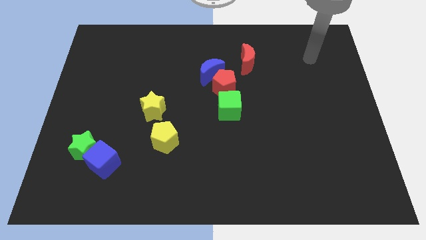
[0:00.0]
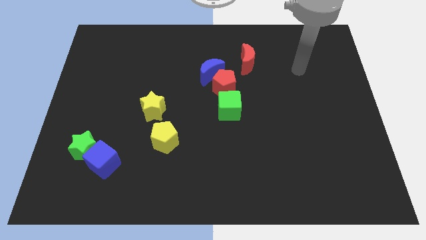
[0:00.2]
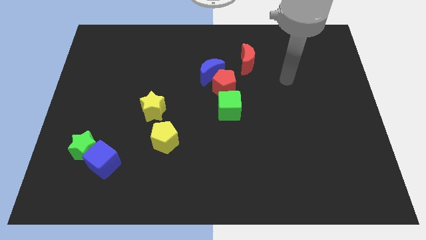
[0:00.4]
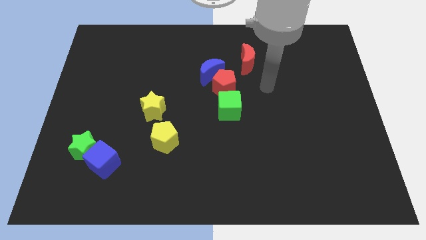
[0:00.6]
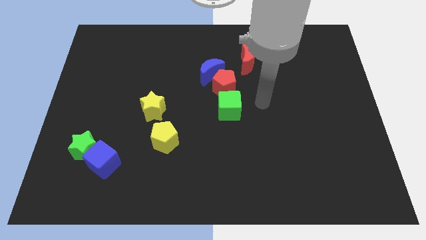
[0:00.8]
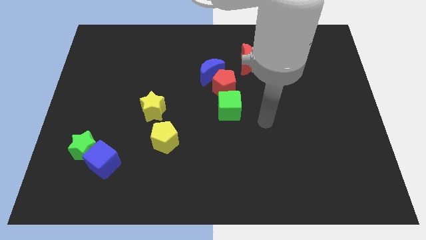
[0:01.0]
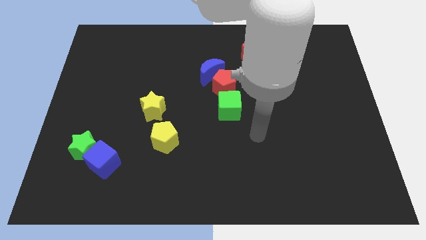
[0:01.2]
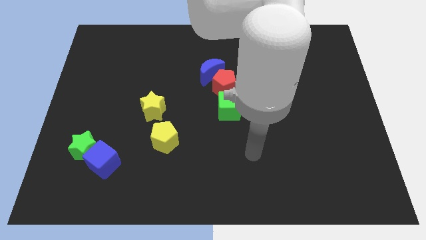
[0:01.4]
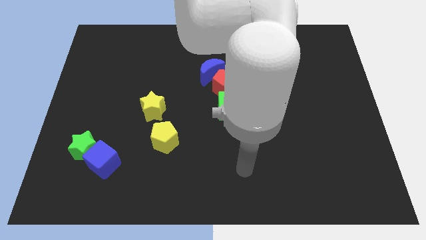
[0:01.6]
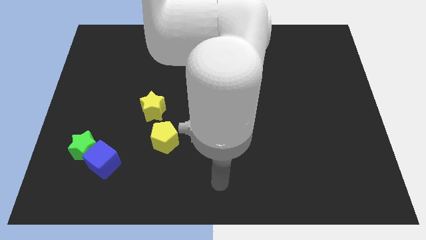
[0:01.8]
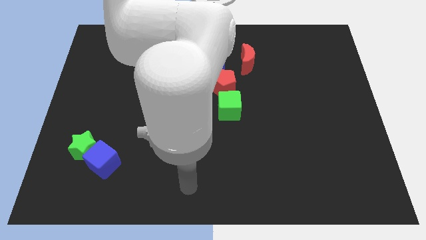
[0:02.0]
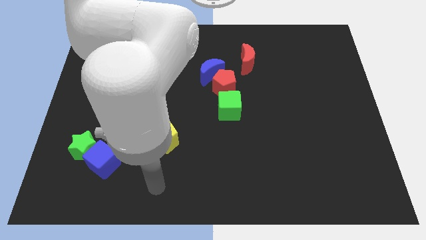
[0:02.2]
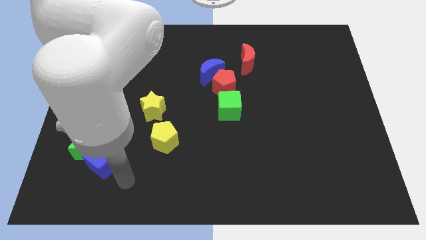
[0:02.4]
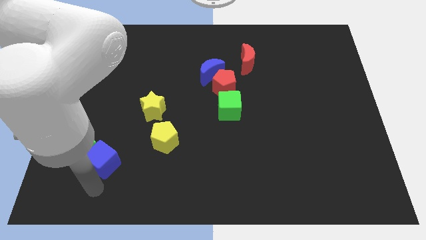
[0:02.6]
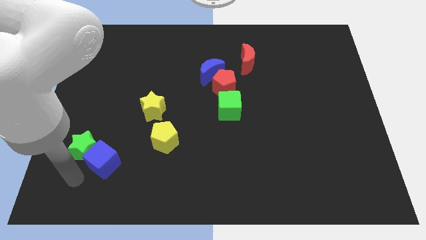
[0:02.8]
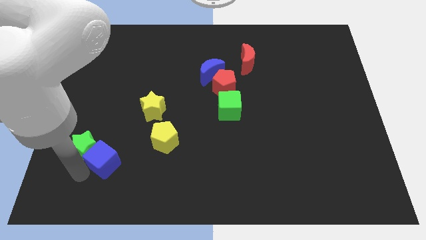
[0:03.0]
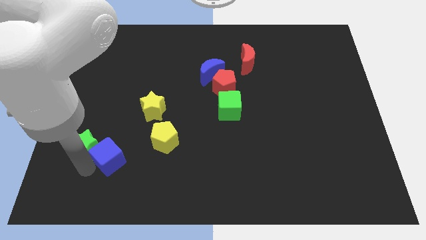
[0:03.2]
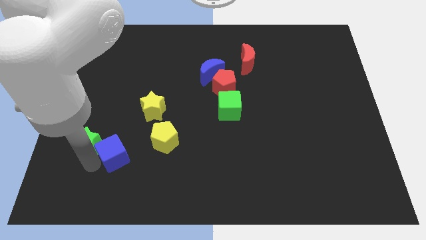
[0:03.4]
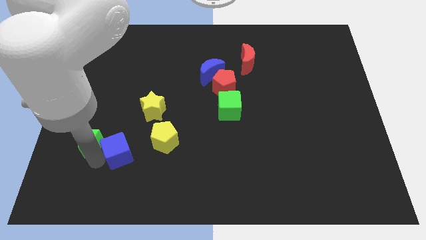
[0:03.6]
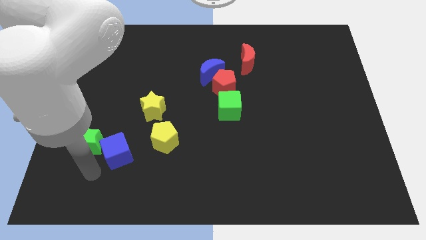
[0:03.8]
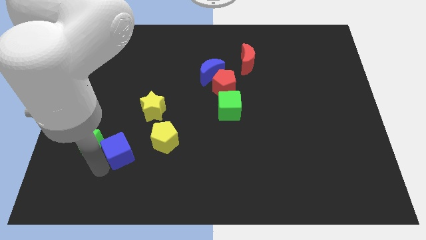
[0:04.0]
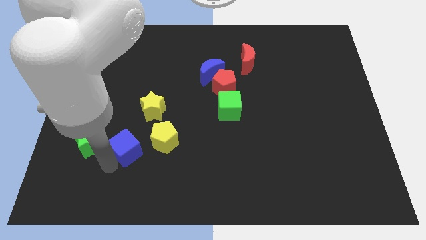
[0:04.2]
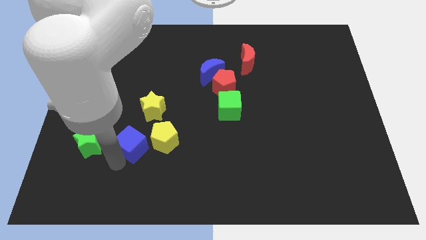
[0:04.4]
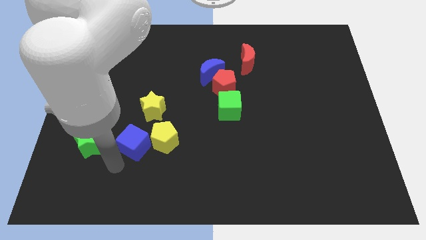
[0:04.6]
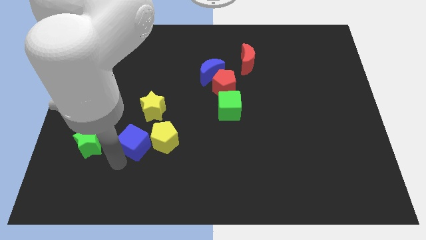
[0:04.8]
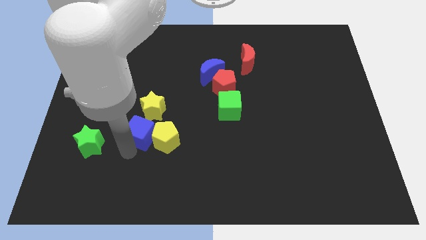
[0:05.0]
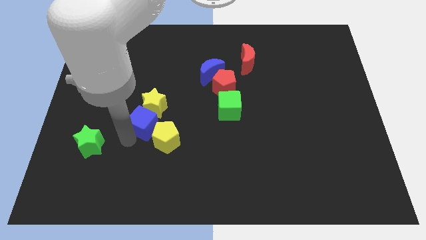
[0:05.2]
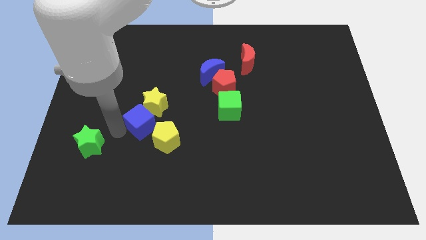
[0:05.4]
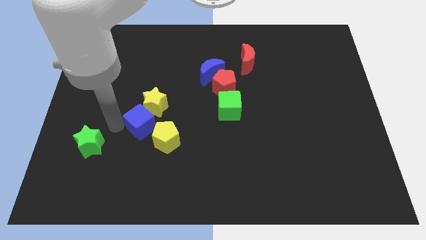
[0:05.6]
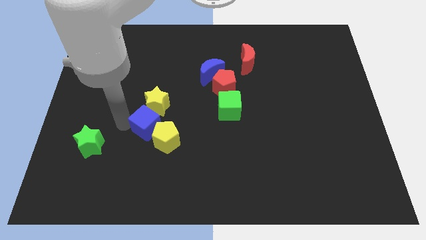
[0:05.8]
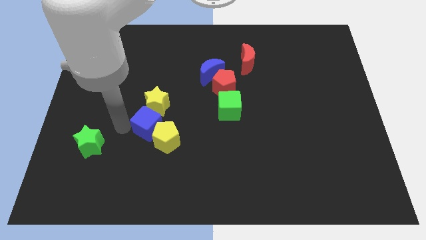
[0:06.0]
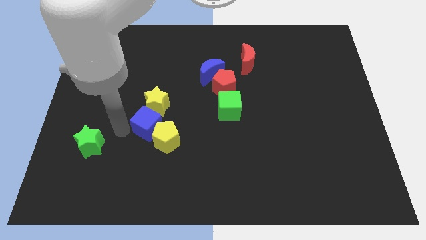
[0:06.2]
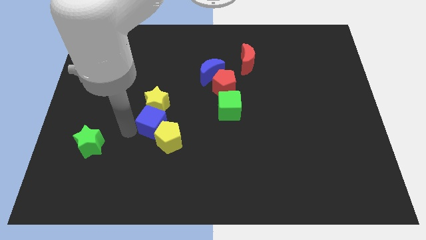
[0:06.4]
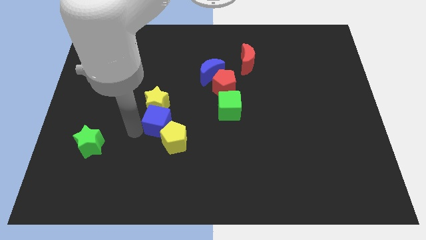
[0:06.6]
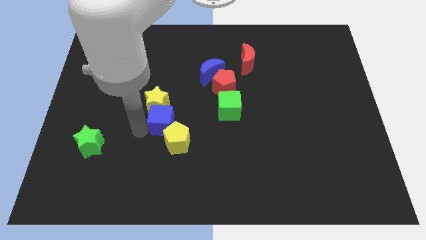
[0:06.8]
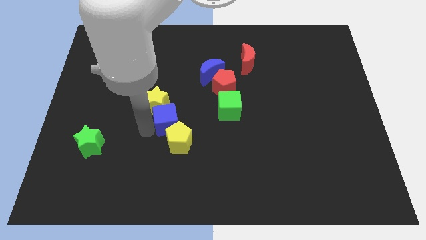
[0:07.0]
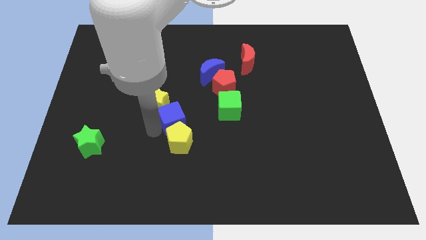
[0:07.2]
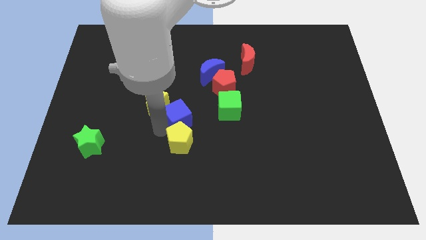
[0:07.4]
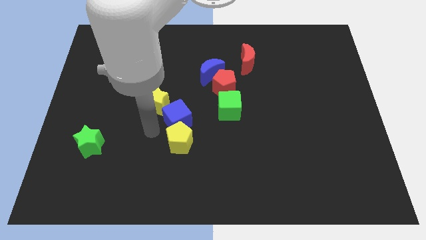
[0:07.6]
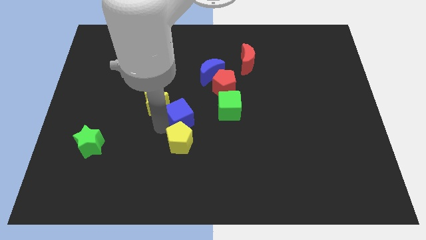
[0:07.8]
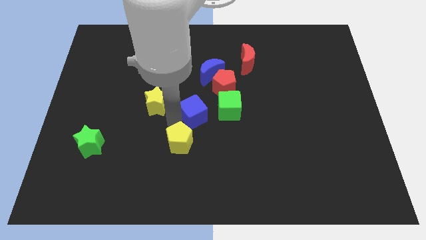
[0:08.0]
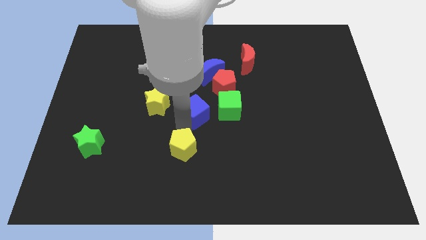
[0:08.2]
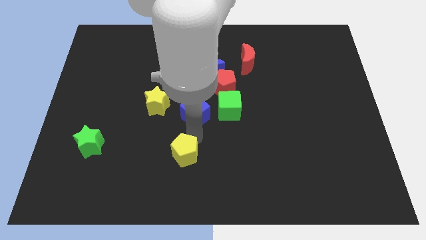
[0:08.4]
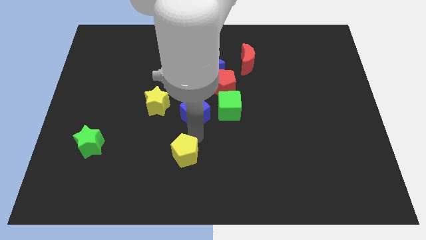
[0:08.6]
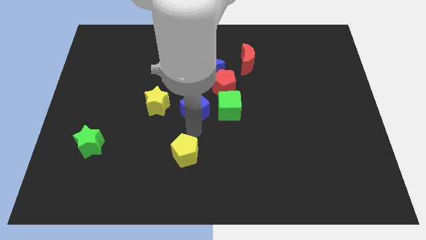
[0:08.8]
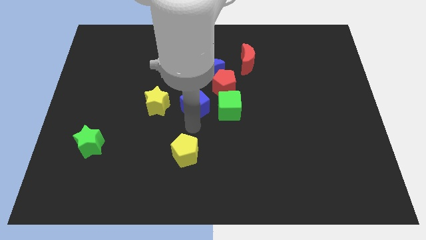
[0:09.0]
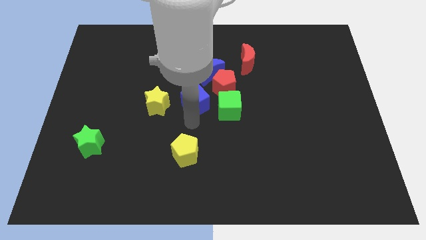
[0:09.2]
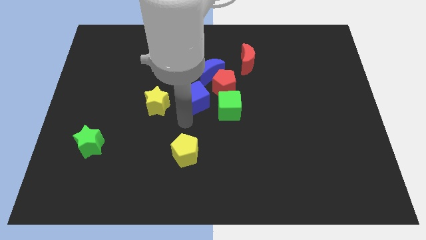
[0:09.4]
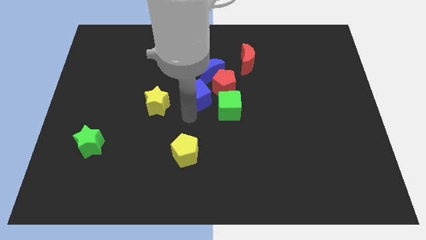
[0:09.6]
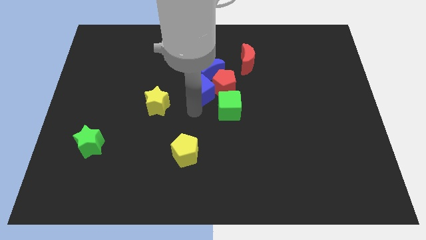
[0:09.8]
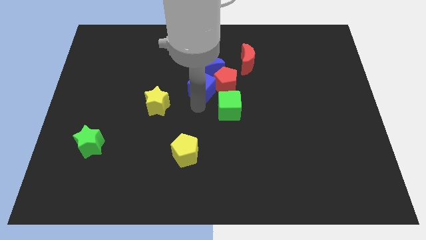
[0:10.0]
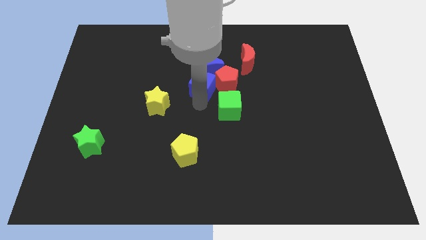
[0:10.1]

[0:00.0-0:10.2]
slide the blue cube towards the blue moon

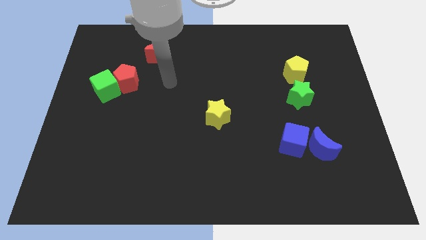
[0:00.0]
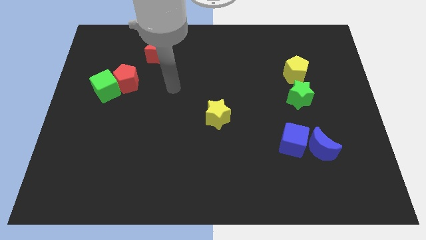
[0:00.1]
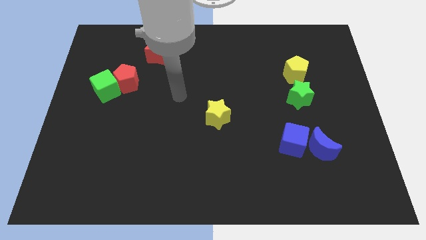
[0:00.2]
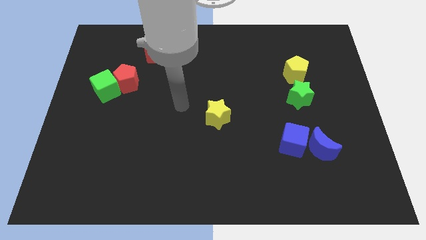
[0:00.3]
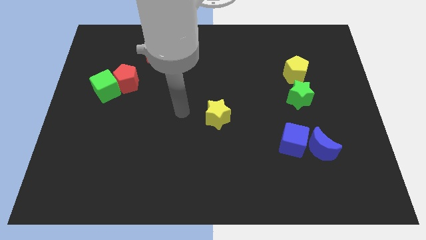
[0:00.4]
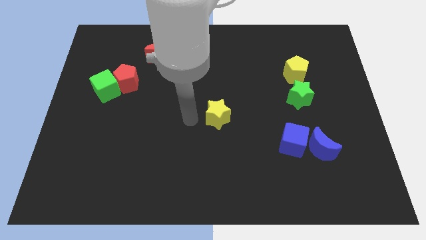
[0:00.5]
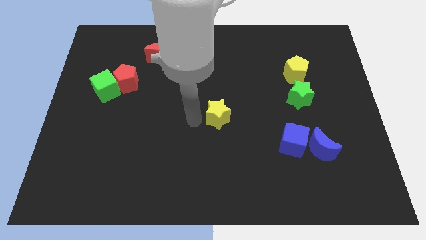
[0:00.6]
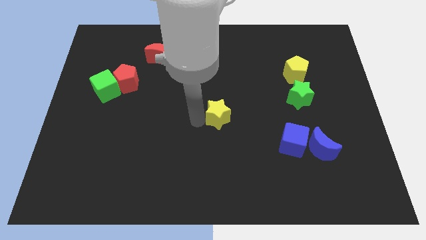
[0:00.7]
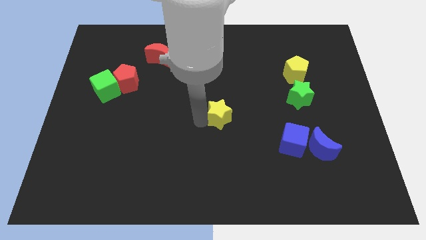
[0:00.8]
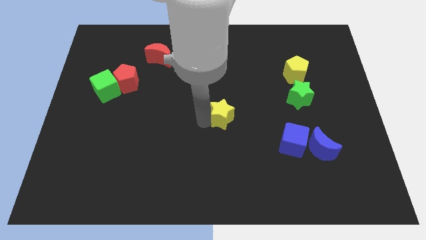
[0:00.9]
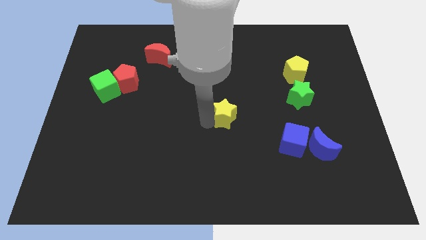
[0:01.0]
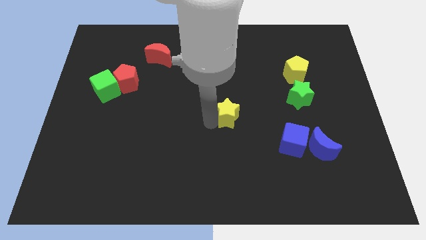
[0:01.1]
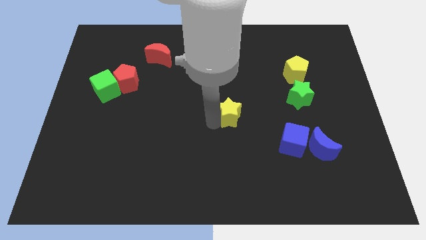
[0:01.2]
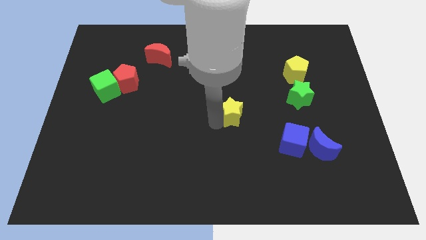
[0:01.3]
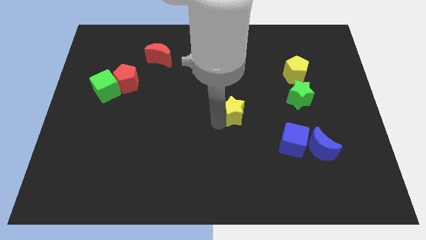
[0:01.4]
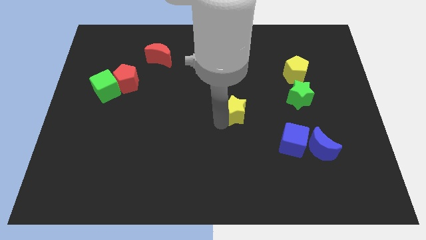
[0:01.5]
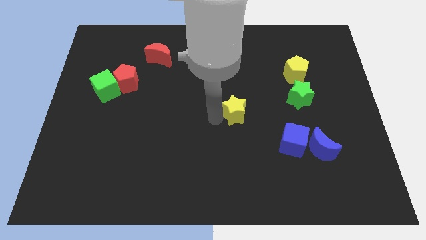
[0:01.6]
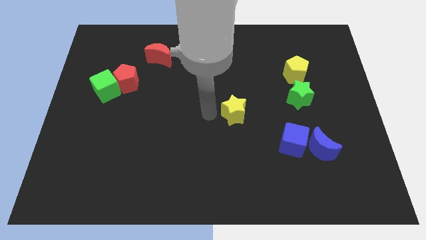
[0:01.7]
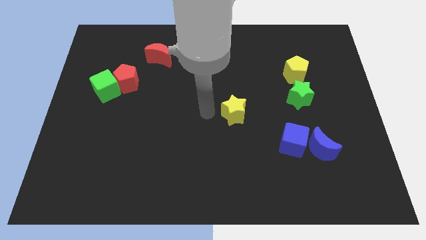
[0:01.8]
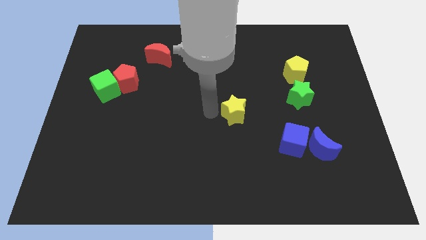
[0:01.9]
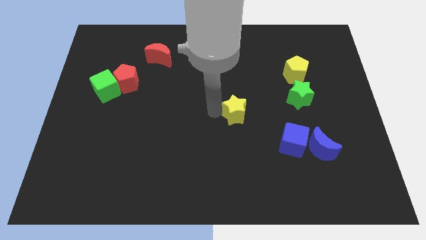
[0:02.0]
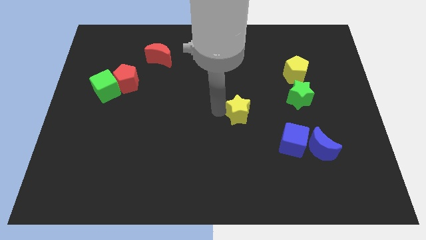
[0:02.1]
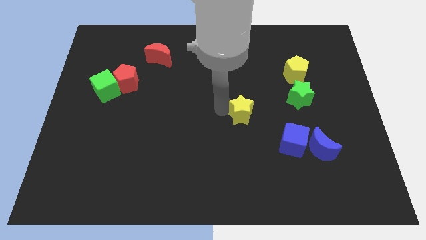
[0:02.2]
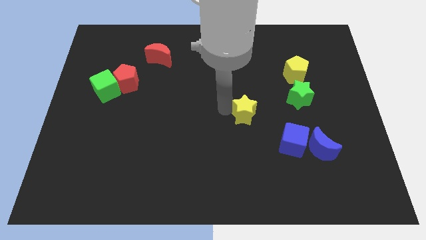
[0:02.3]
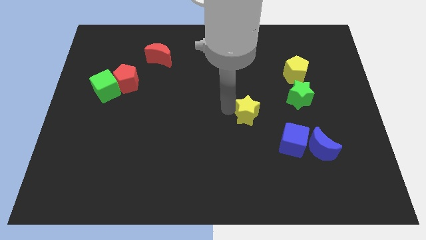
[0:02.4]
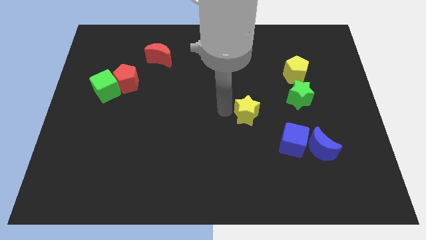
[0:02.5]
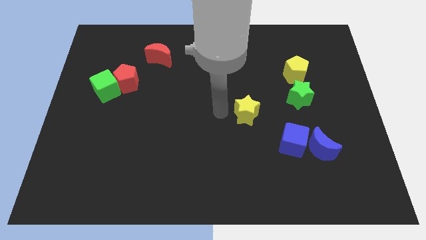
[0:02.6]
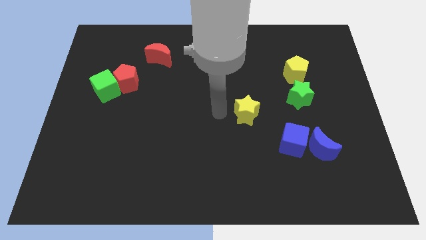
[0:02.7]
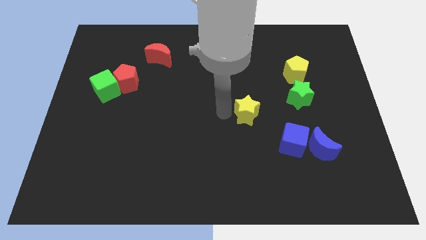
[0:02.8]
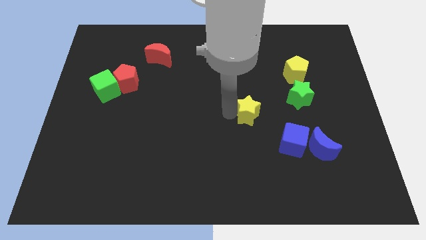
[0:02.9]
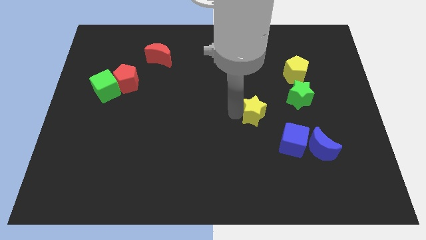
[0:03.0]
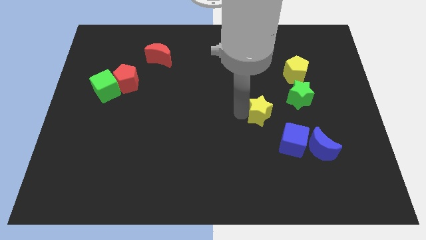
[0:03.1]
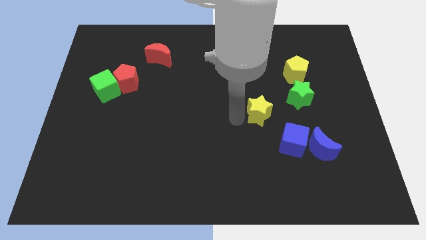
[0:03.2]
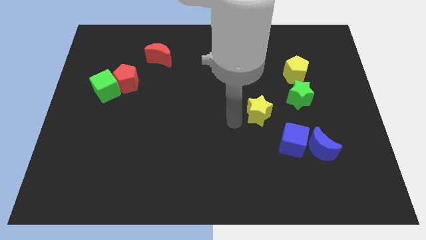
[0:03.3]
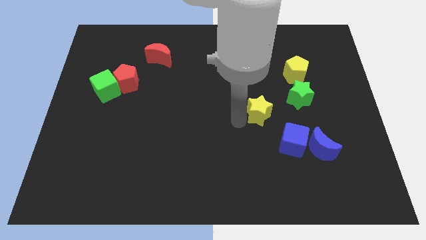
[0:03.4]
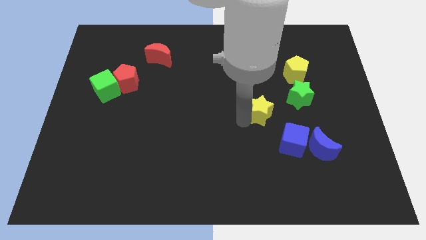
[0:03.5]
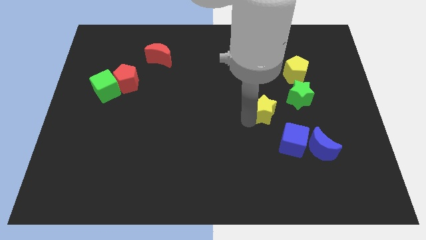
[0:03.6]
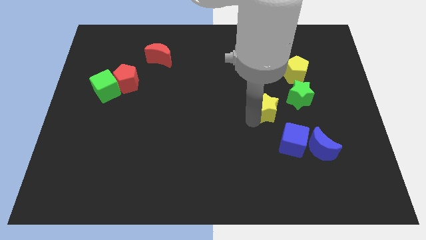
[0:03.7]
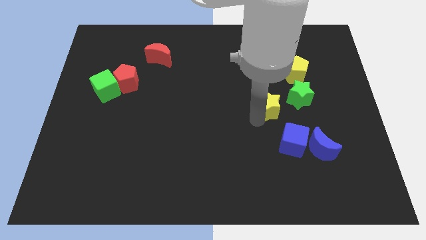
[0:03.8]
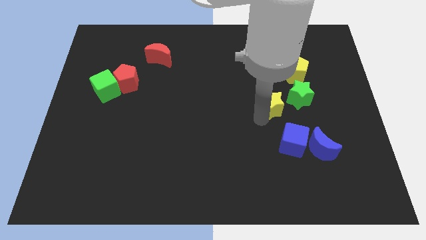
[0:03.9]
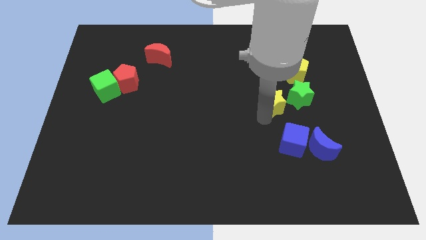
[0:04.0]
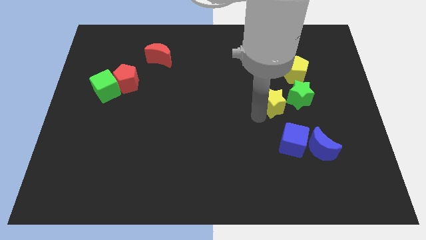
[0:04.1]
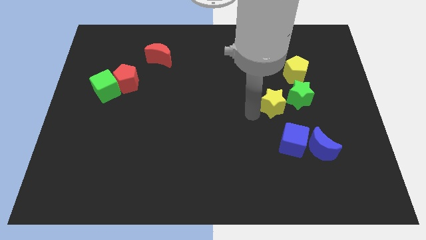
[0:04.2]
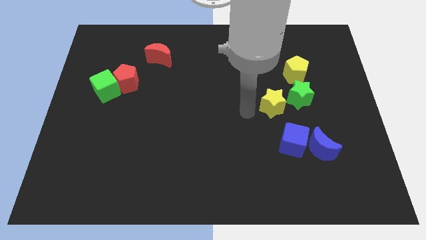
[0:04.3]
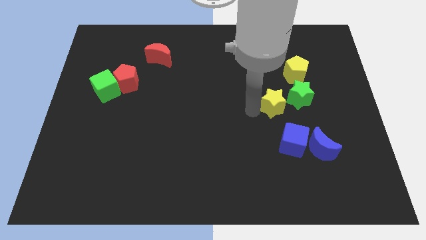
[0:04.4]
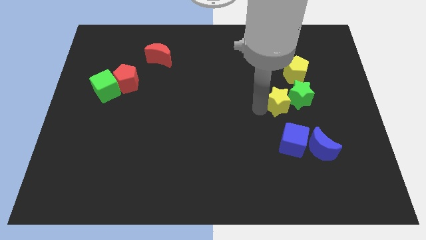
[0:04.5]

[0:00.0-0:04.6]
push the yellow star close to the green star
